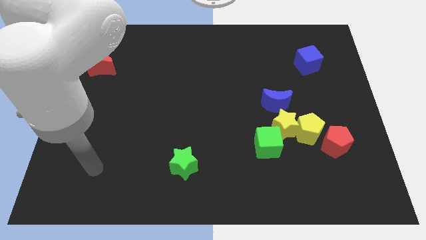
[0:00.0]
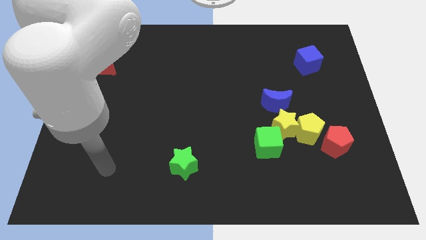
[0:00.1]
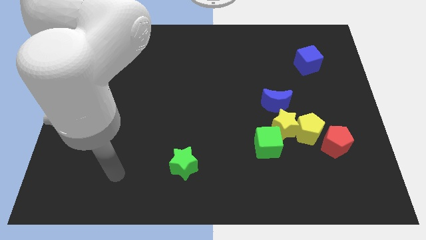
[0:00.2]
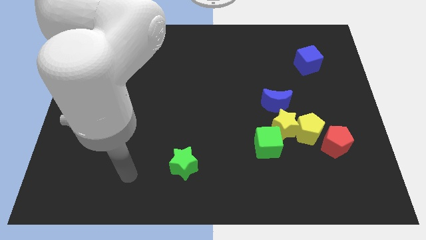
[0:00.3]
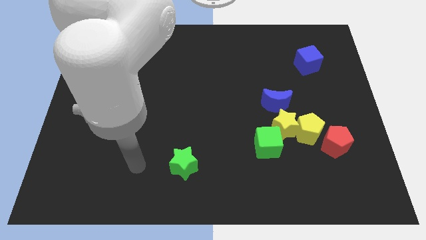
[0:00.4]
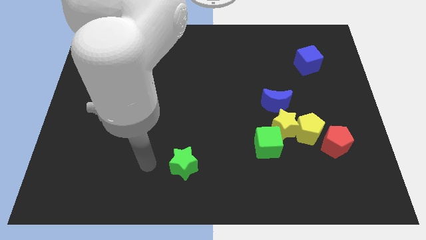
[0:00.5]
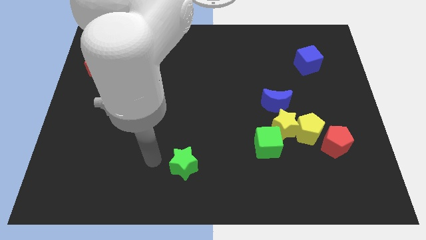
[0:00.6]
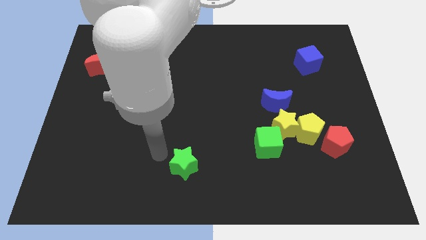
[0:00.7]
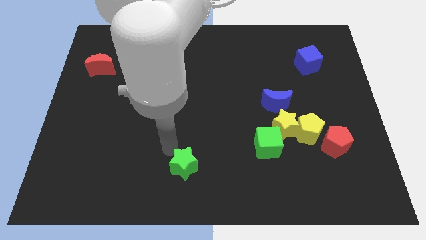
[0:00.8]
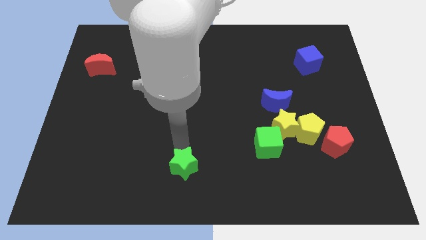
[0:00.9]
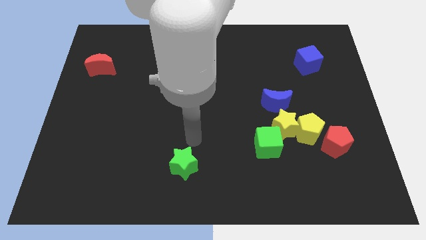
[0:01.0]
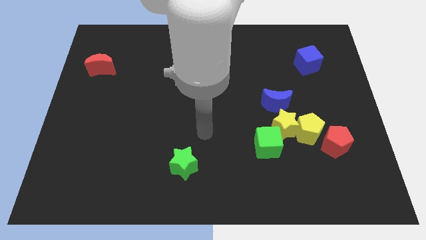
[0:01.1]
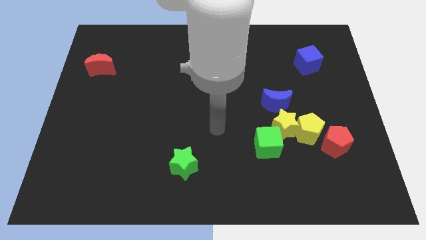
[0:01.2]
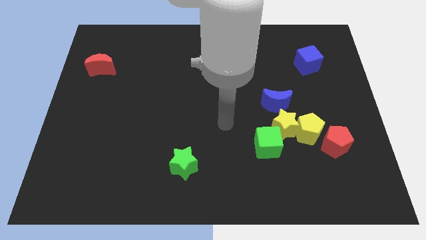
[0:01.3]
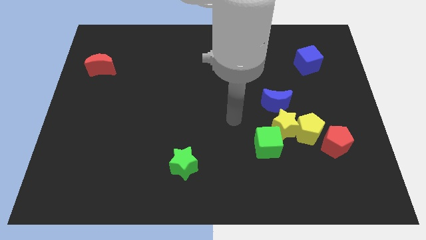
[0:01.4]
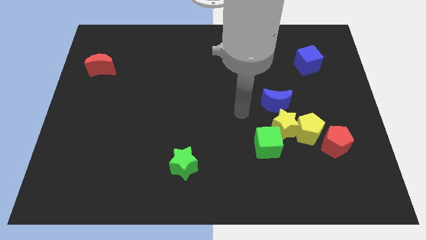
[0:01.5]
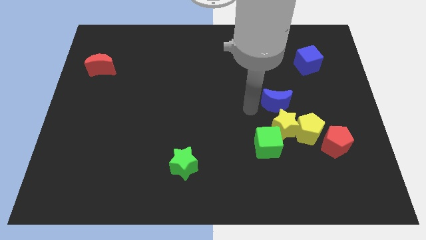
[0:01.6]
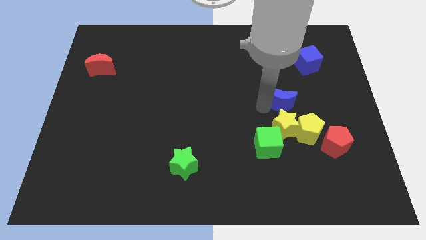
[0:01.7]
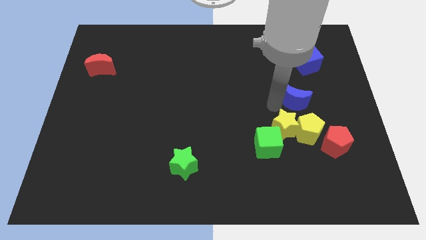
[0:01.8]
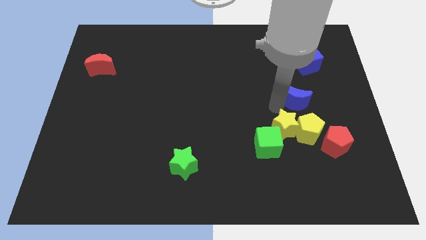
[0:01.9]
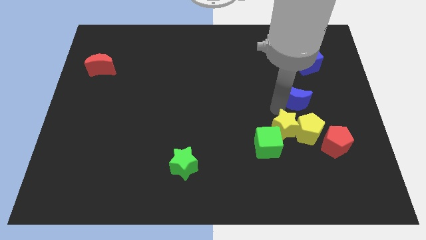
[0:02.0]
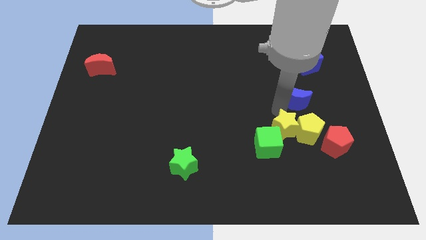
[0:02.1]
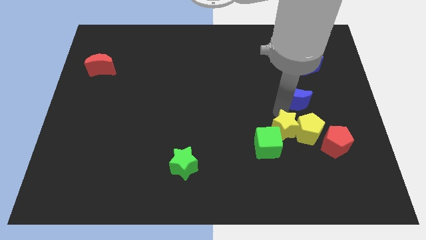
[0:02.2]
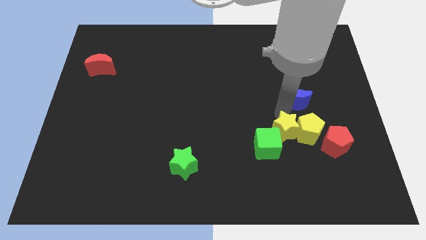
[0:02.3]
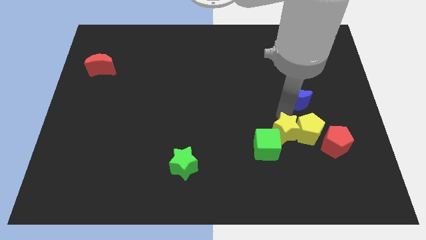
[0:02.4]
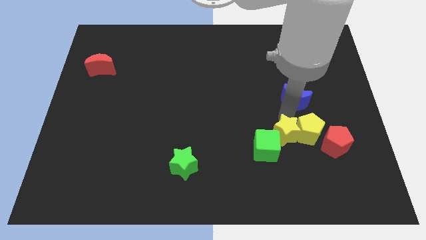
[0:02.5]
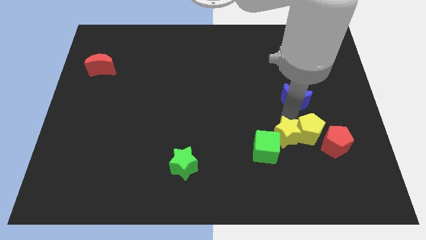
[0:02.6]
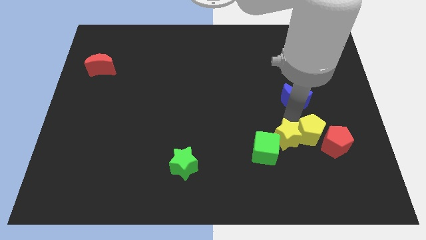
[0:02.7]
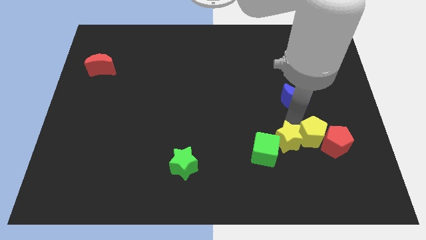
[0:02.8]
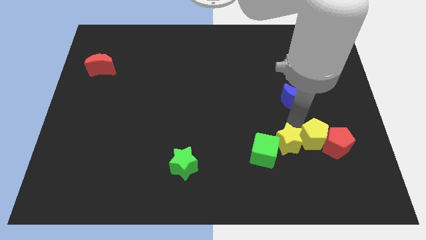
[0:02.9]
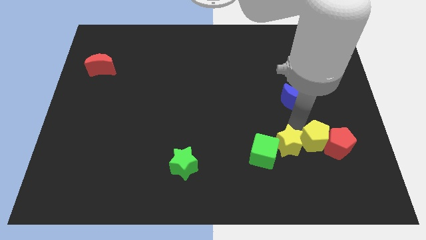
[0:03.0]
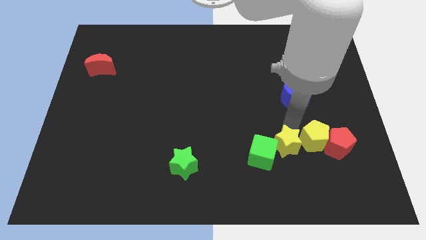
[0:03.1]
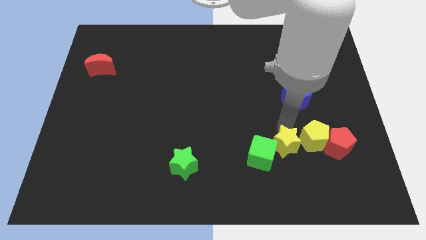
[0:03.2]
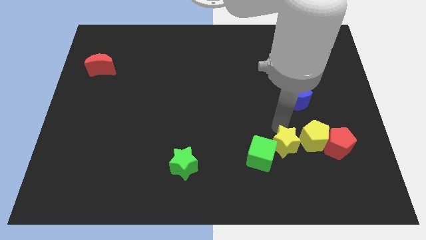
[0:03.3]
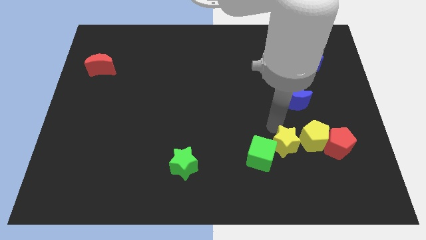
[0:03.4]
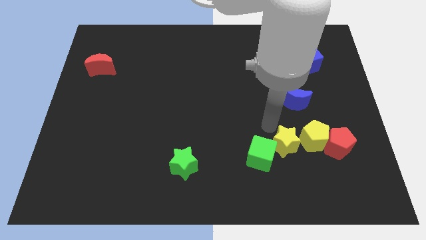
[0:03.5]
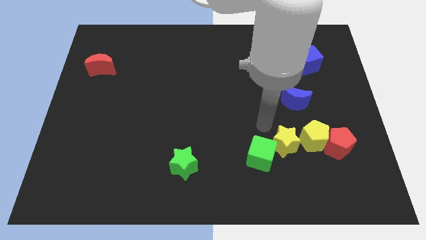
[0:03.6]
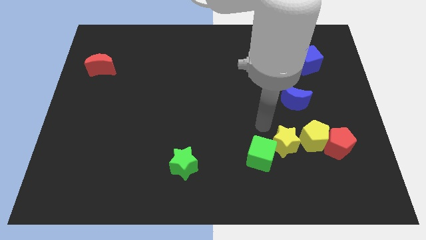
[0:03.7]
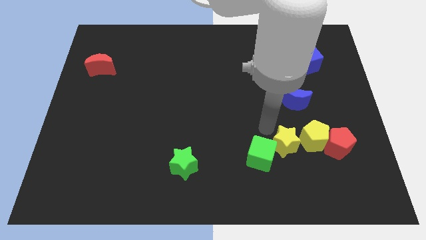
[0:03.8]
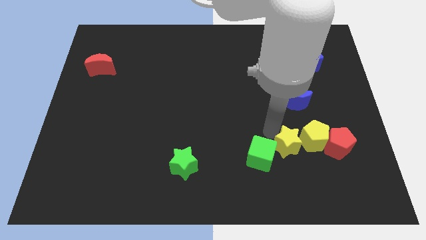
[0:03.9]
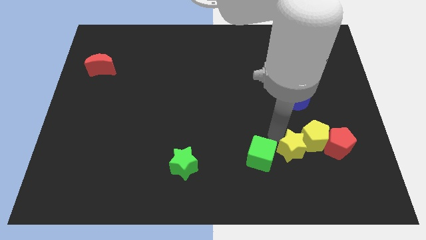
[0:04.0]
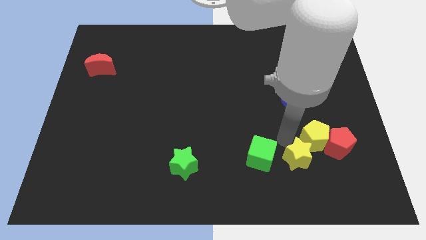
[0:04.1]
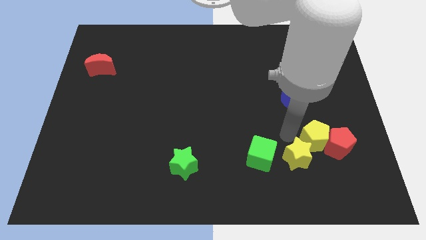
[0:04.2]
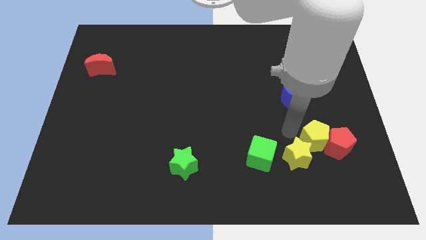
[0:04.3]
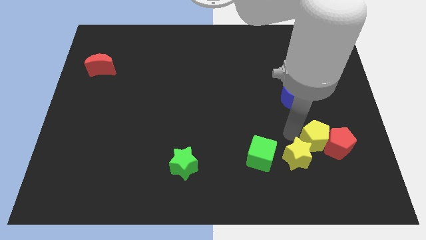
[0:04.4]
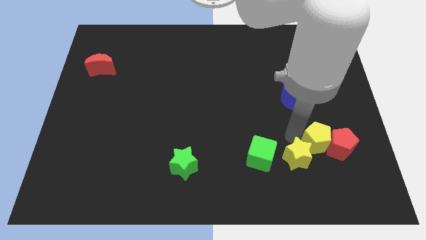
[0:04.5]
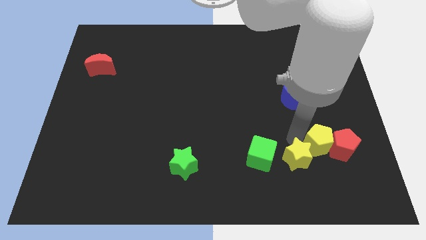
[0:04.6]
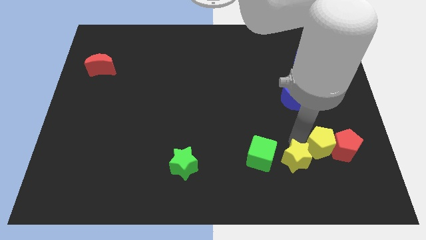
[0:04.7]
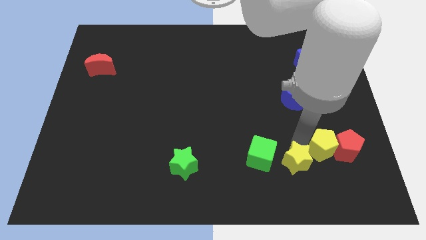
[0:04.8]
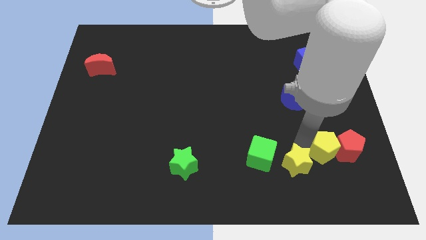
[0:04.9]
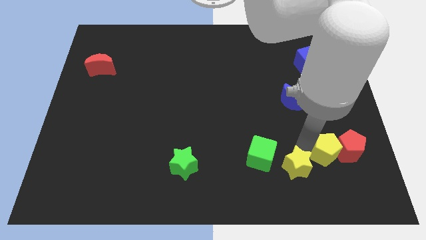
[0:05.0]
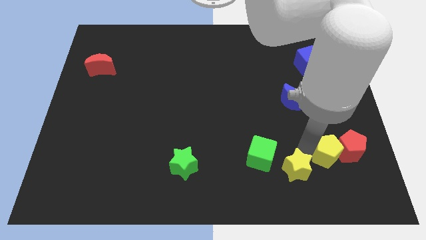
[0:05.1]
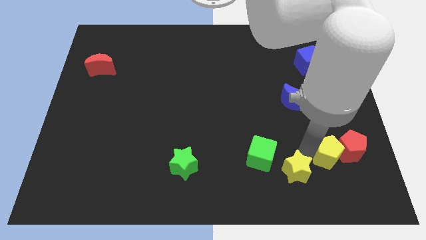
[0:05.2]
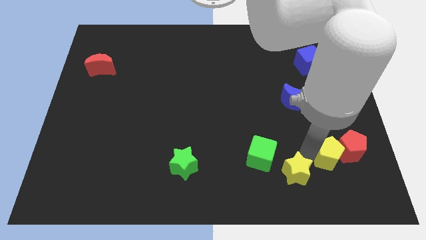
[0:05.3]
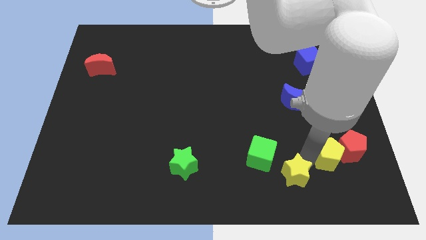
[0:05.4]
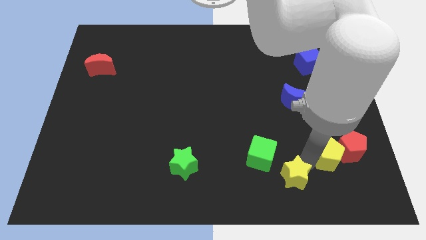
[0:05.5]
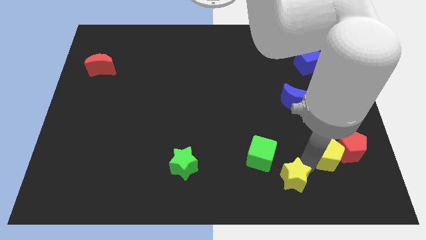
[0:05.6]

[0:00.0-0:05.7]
separate the yellow star from the yellow pentagon, green cube, and blue moon

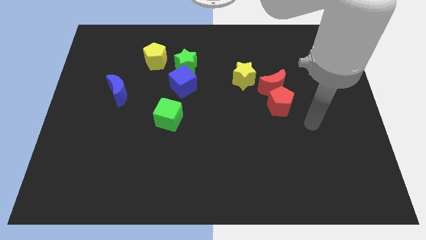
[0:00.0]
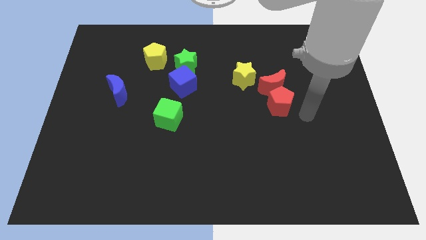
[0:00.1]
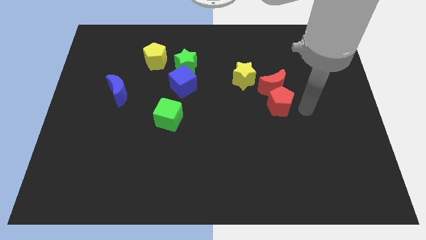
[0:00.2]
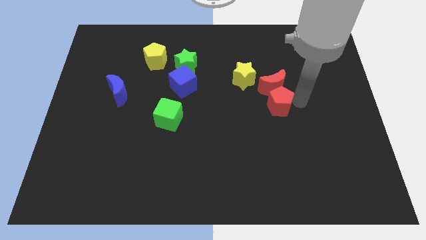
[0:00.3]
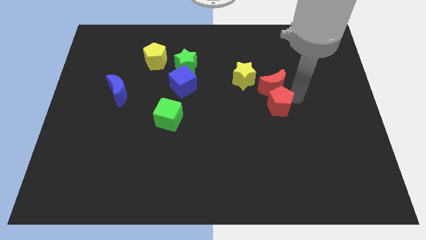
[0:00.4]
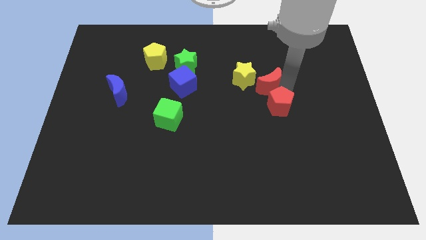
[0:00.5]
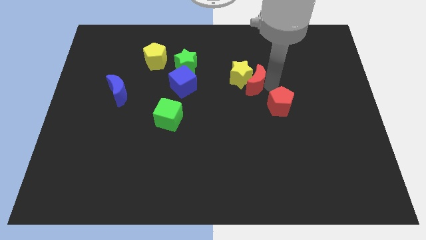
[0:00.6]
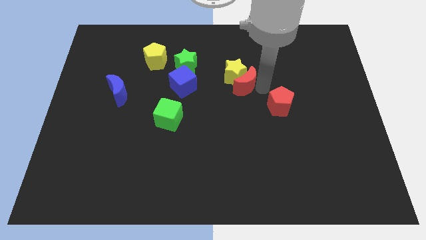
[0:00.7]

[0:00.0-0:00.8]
pull the red pentagon apart from the red moon

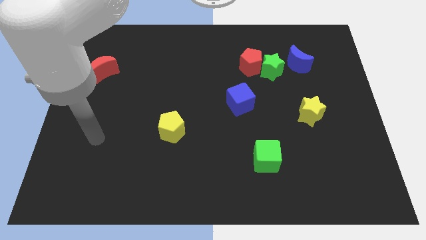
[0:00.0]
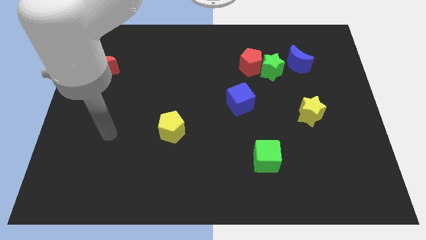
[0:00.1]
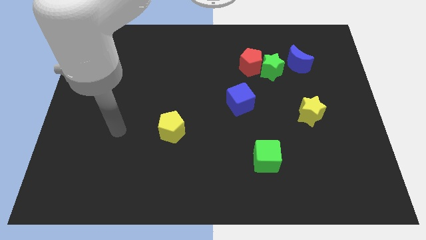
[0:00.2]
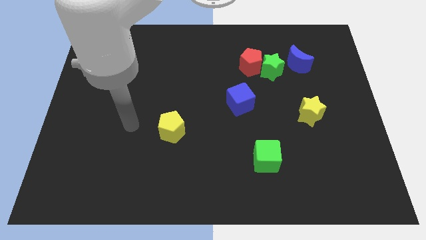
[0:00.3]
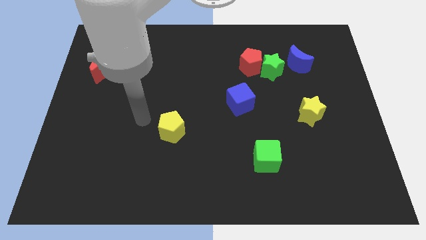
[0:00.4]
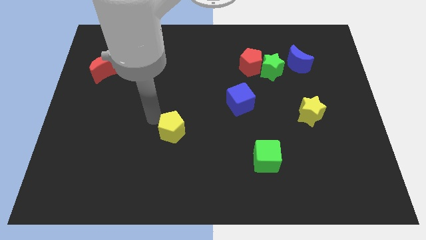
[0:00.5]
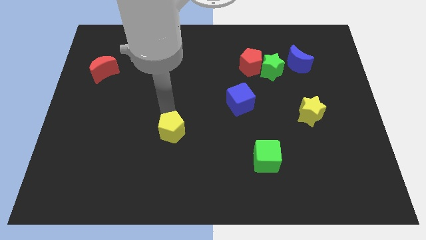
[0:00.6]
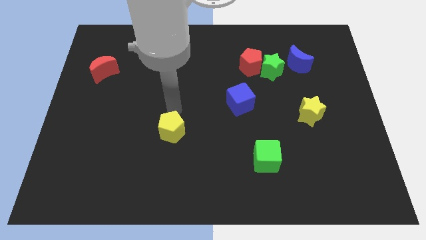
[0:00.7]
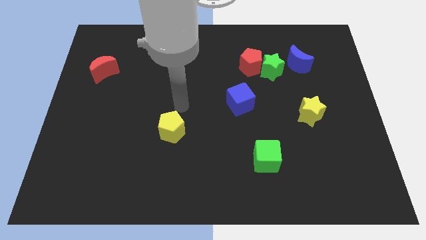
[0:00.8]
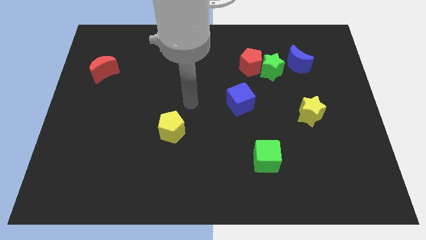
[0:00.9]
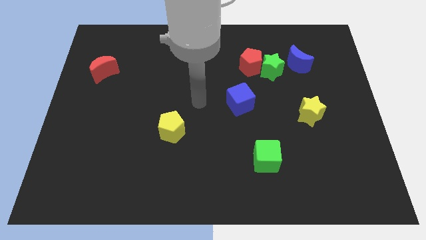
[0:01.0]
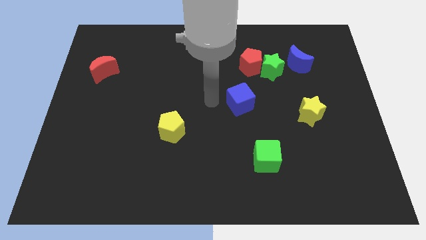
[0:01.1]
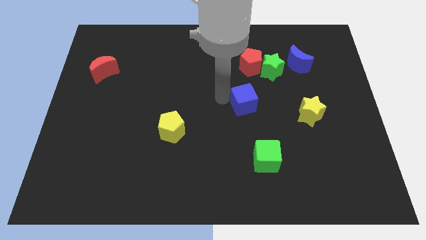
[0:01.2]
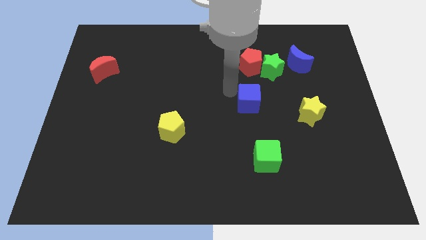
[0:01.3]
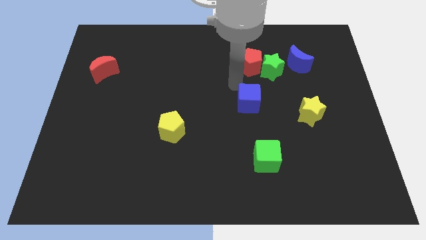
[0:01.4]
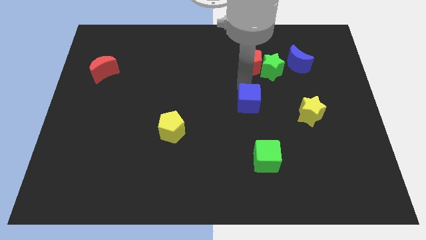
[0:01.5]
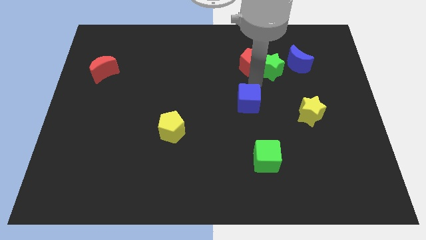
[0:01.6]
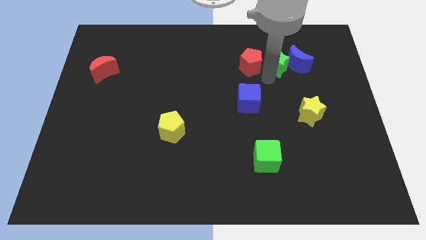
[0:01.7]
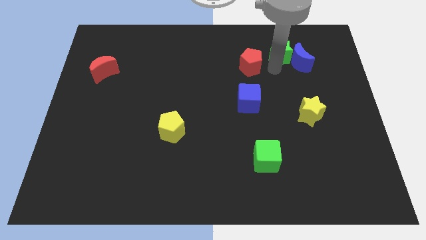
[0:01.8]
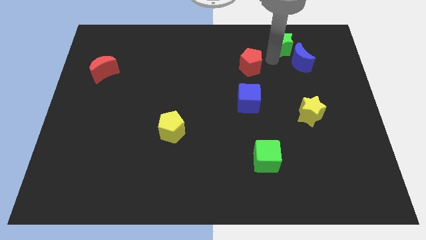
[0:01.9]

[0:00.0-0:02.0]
pull the red pentagon apart from the green star

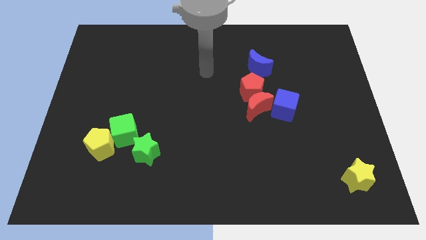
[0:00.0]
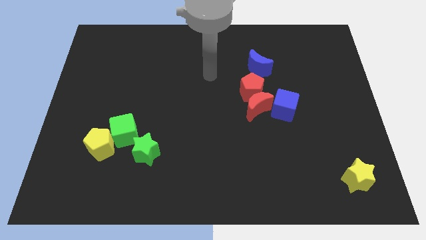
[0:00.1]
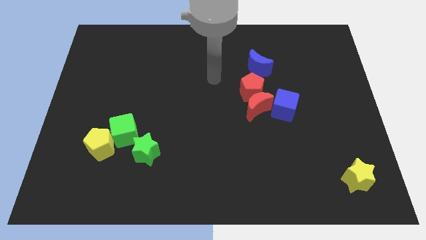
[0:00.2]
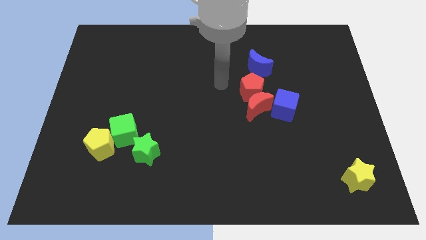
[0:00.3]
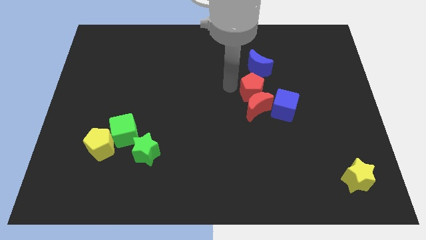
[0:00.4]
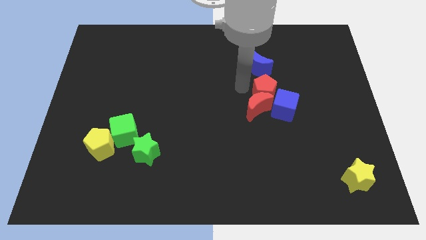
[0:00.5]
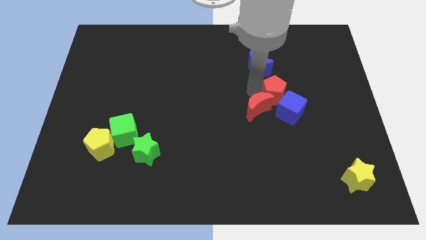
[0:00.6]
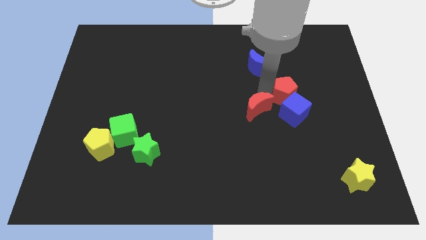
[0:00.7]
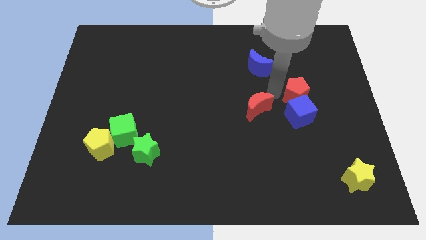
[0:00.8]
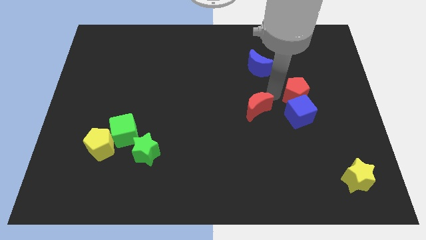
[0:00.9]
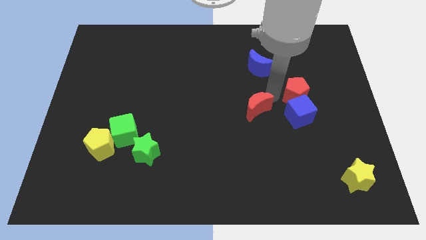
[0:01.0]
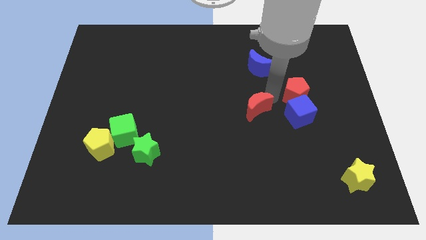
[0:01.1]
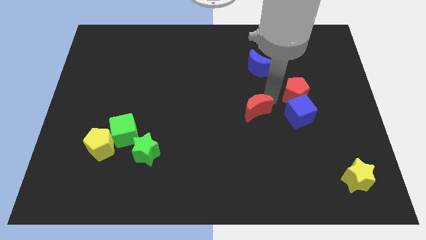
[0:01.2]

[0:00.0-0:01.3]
separate the red moon from the red pentagon and blue cube
